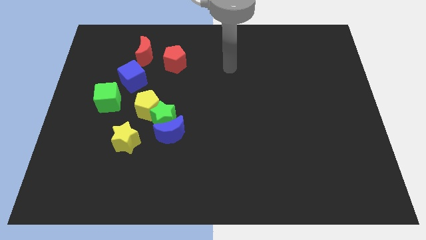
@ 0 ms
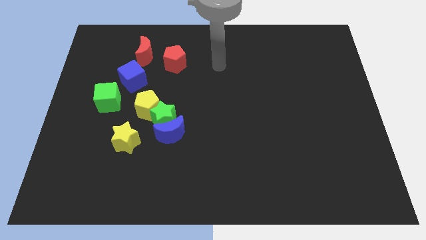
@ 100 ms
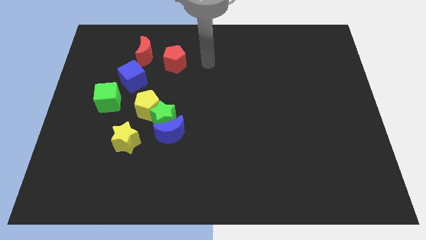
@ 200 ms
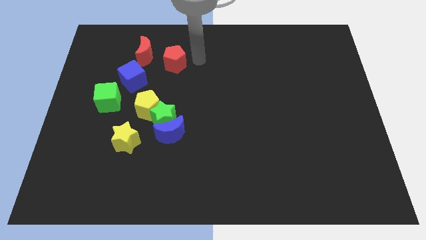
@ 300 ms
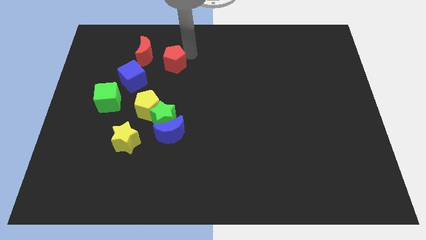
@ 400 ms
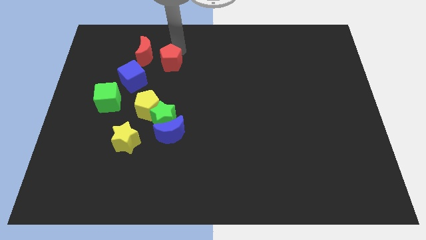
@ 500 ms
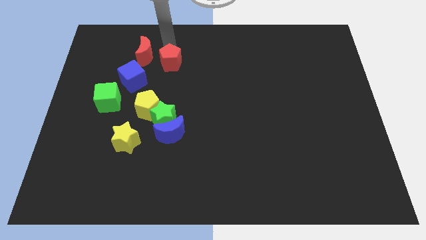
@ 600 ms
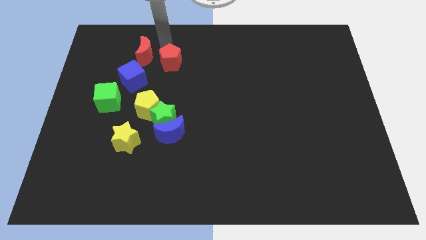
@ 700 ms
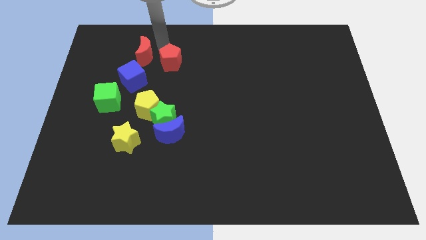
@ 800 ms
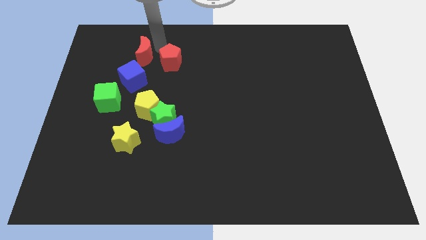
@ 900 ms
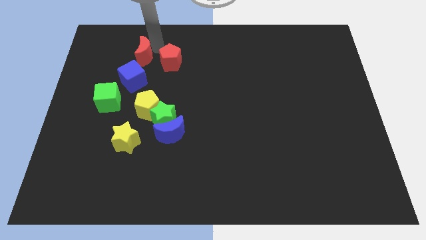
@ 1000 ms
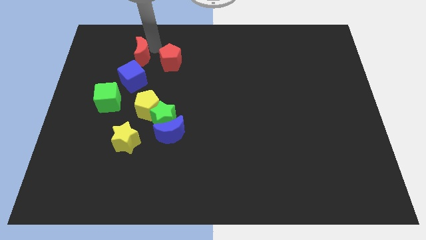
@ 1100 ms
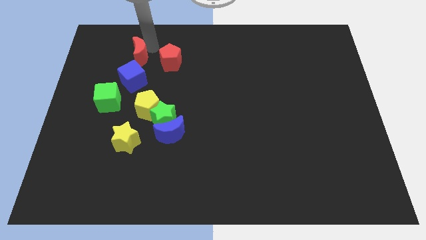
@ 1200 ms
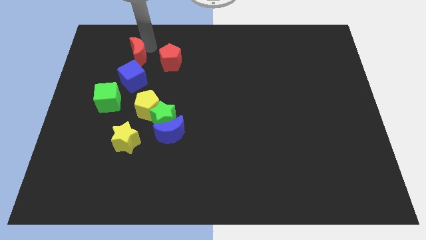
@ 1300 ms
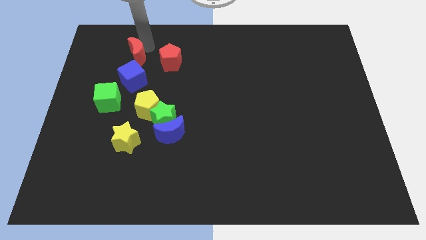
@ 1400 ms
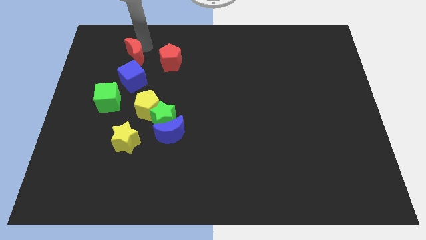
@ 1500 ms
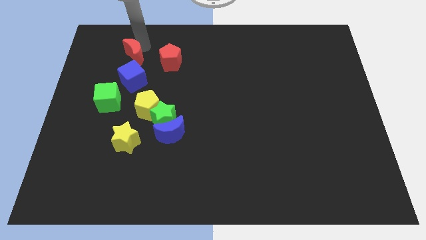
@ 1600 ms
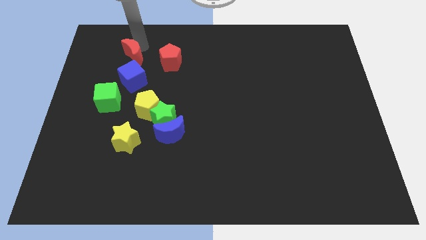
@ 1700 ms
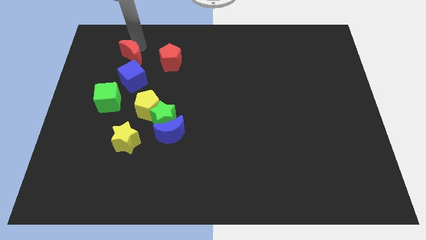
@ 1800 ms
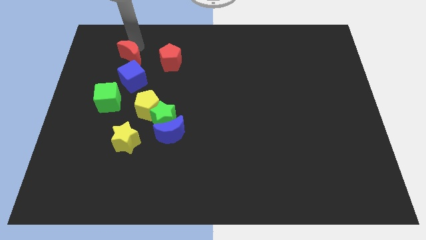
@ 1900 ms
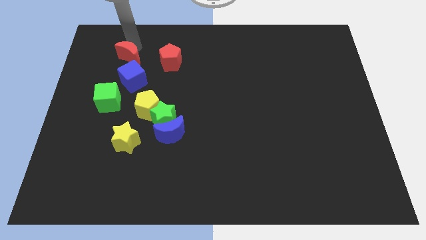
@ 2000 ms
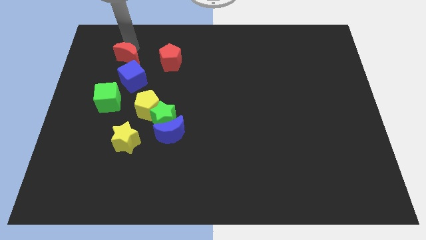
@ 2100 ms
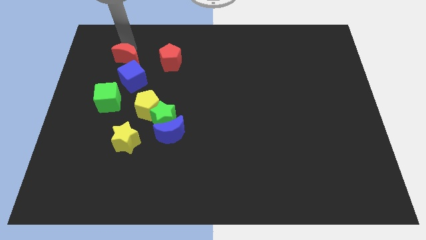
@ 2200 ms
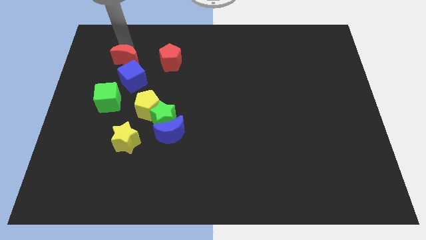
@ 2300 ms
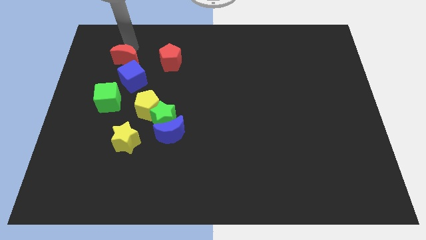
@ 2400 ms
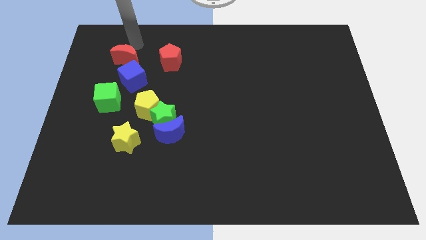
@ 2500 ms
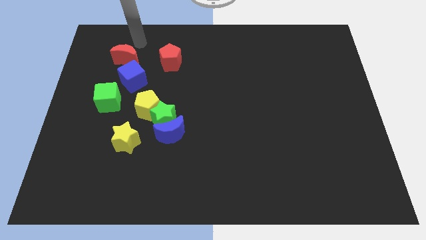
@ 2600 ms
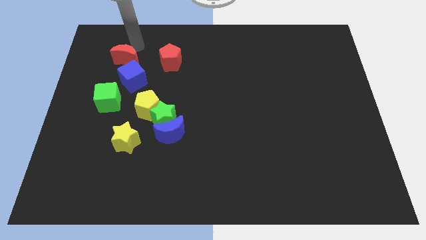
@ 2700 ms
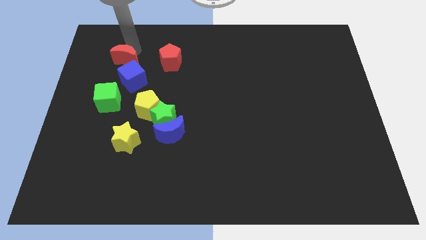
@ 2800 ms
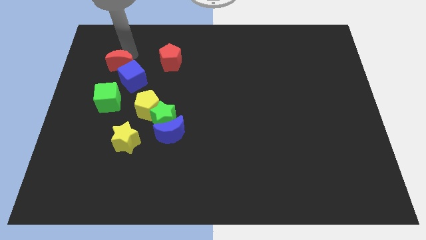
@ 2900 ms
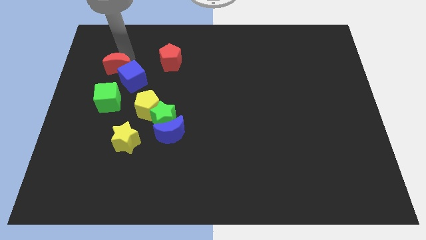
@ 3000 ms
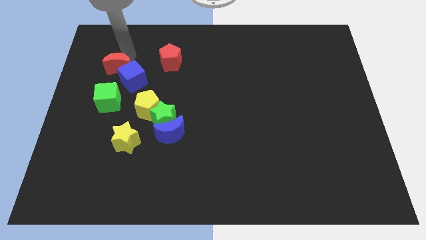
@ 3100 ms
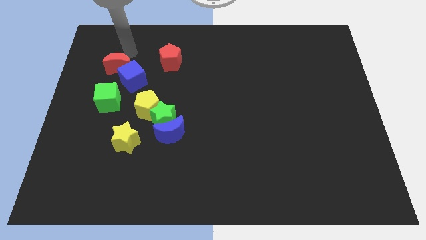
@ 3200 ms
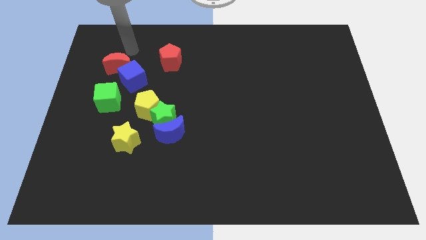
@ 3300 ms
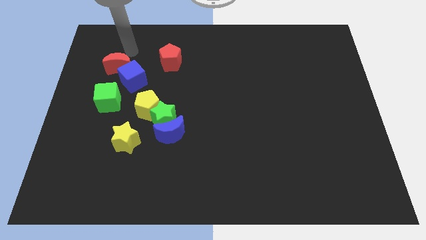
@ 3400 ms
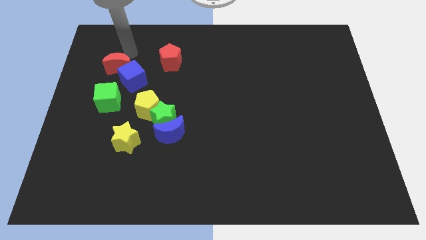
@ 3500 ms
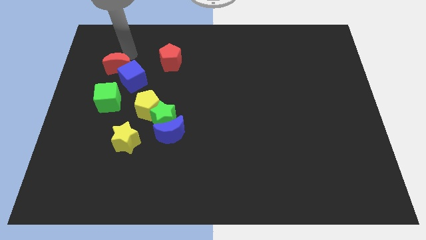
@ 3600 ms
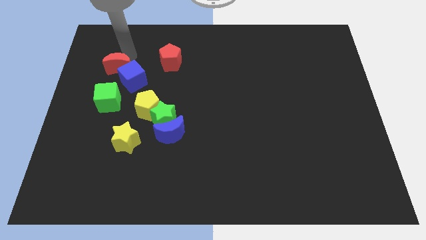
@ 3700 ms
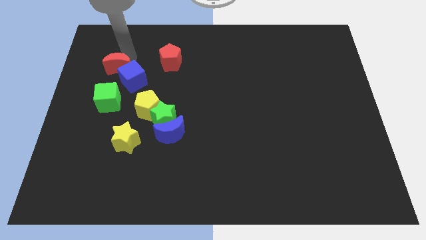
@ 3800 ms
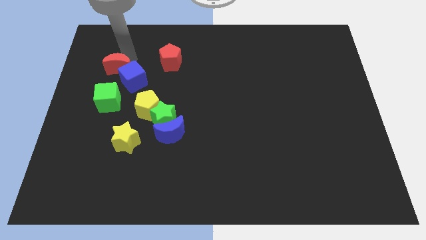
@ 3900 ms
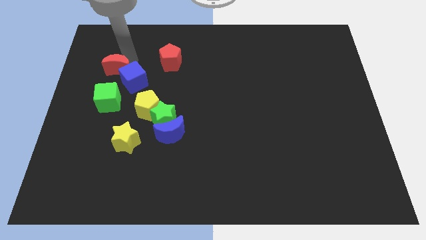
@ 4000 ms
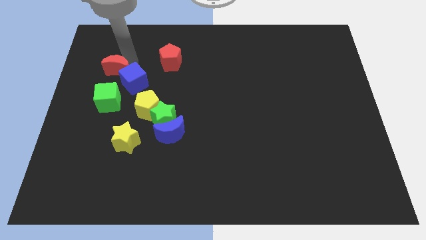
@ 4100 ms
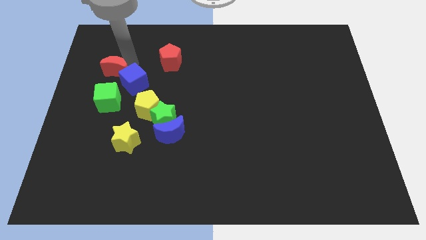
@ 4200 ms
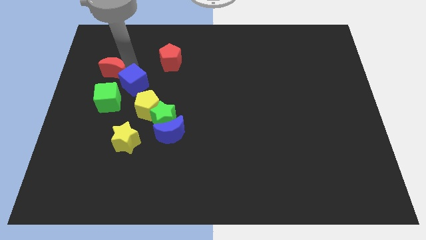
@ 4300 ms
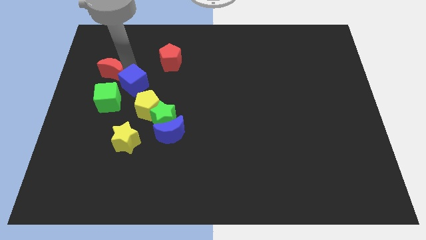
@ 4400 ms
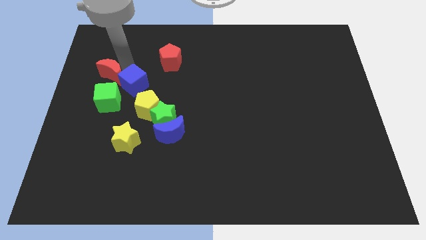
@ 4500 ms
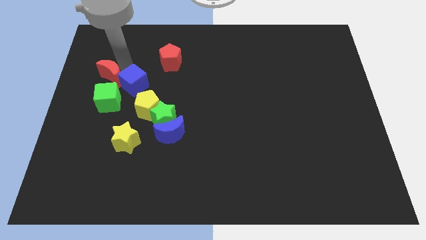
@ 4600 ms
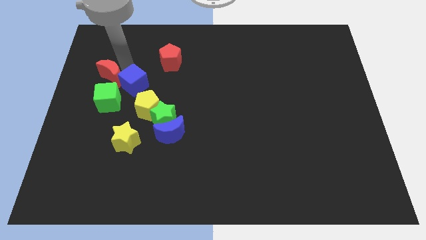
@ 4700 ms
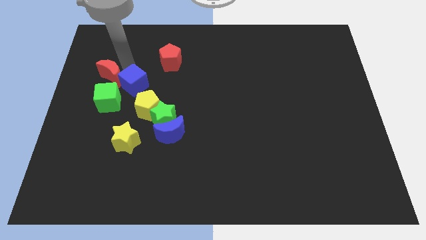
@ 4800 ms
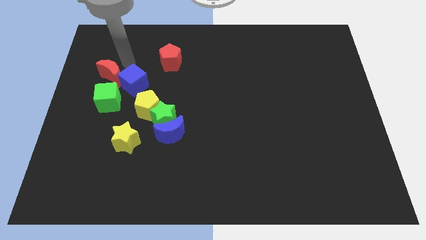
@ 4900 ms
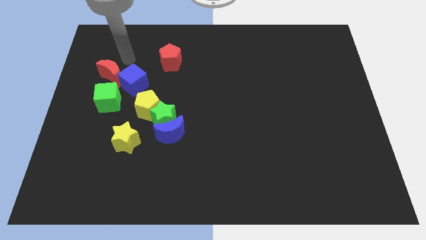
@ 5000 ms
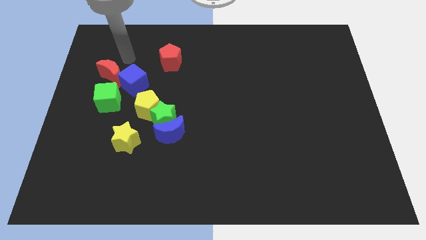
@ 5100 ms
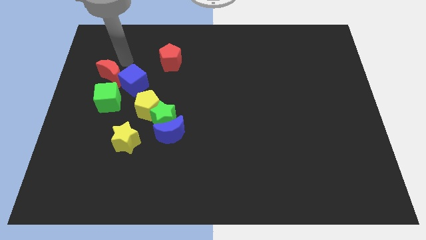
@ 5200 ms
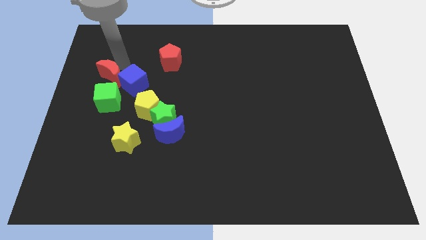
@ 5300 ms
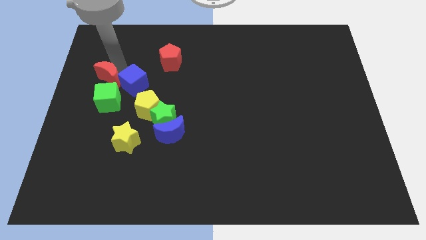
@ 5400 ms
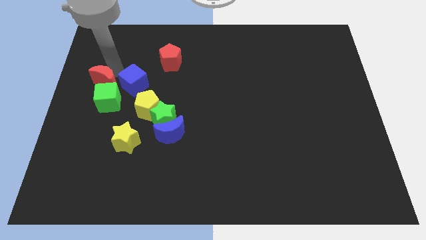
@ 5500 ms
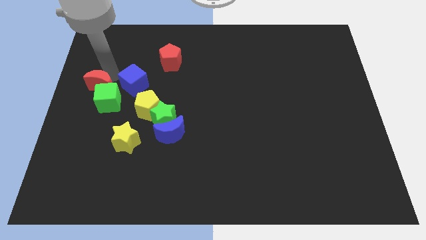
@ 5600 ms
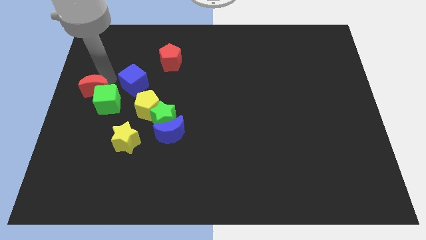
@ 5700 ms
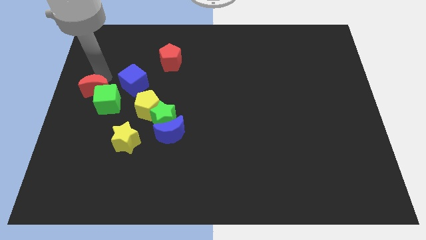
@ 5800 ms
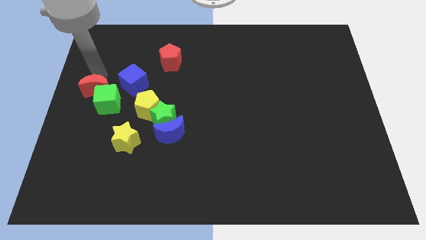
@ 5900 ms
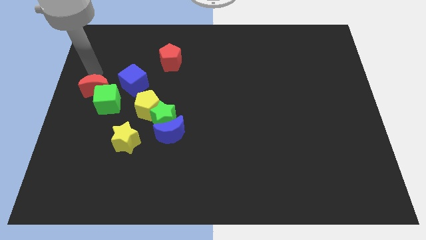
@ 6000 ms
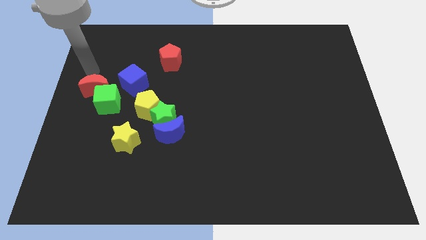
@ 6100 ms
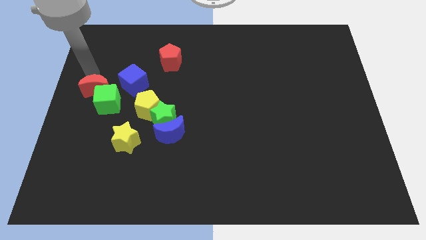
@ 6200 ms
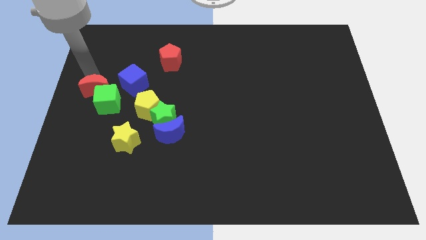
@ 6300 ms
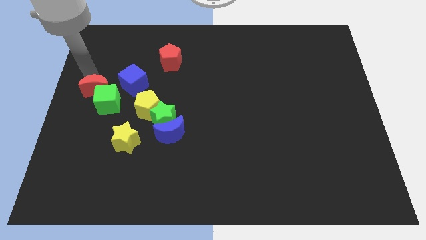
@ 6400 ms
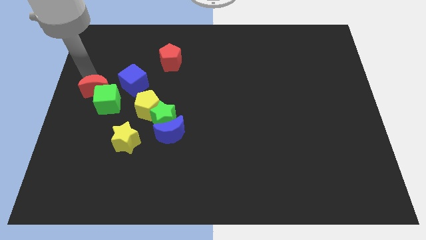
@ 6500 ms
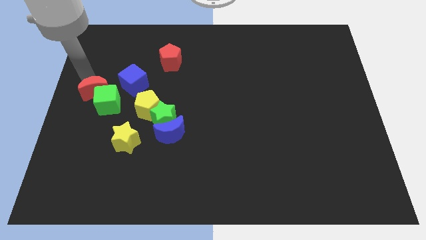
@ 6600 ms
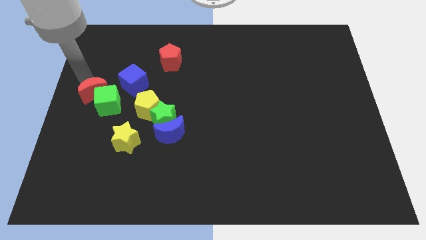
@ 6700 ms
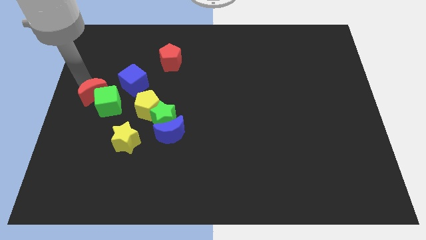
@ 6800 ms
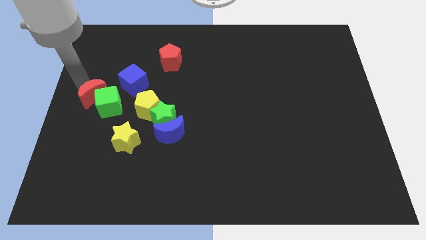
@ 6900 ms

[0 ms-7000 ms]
move the red moon to the left of the yellow pentagon

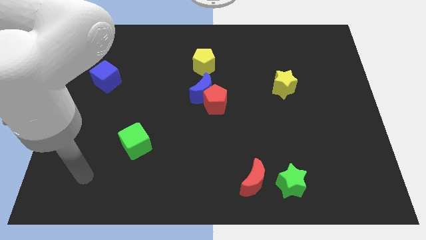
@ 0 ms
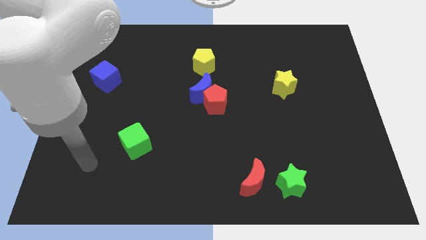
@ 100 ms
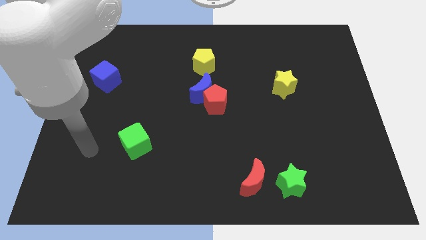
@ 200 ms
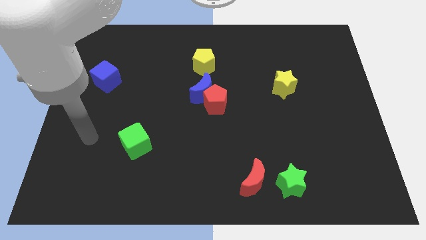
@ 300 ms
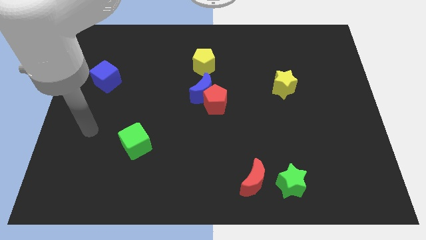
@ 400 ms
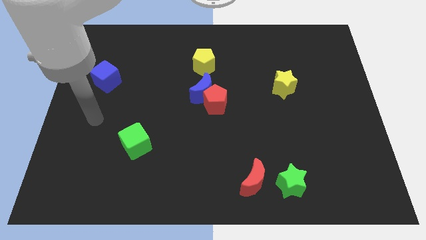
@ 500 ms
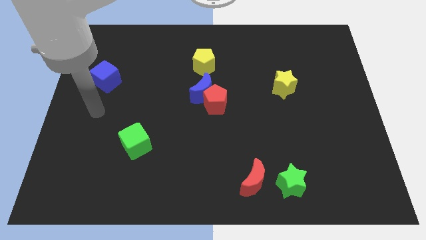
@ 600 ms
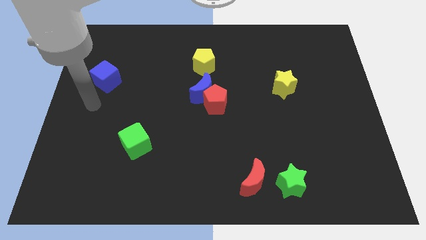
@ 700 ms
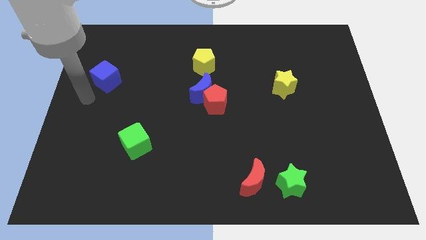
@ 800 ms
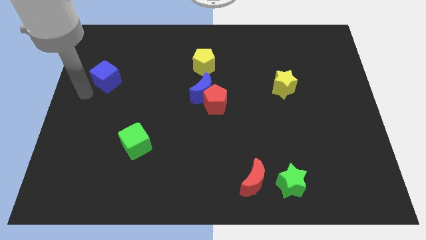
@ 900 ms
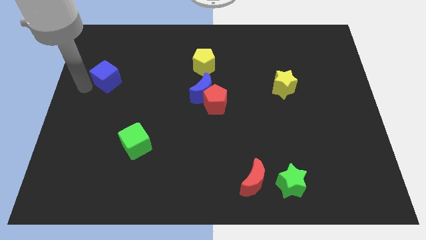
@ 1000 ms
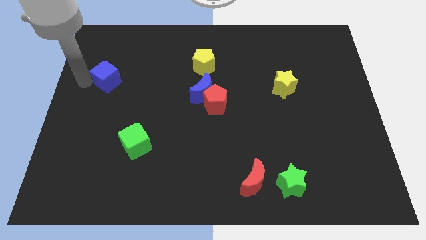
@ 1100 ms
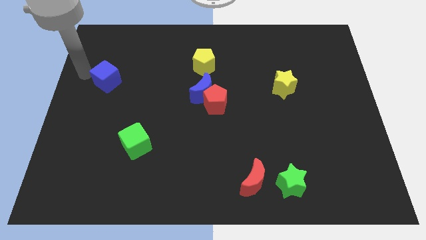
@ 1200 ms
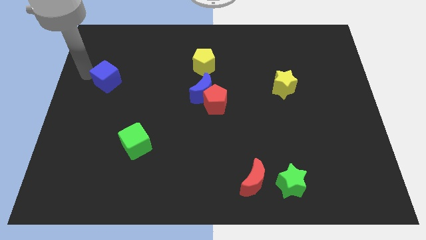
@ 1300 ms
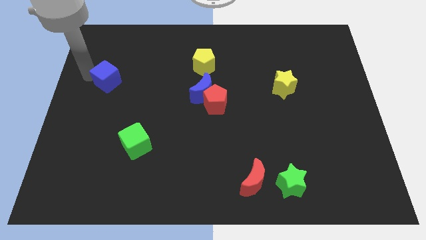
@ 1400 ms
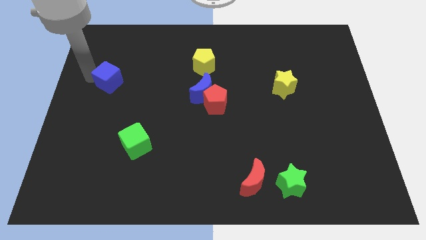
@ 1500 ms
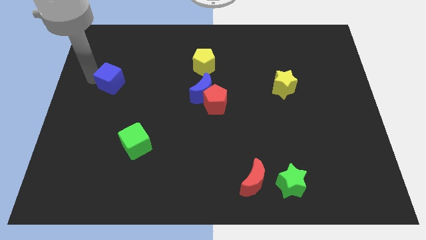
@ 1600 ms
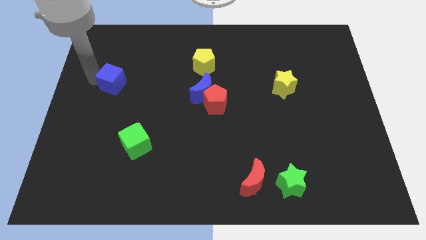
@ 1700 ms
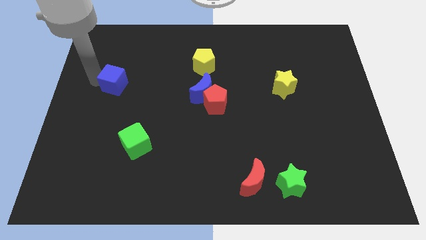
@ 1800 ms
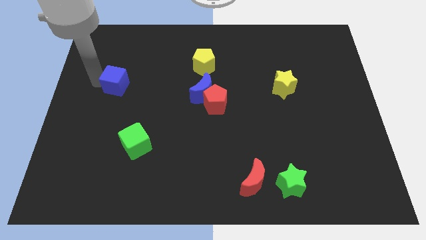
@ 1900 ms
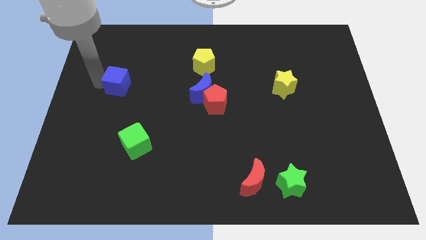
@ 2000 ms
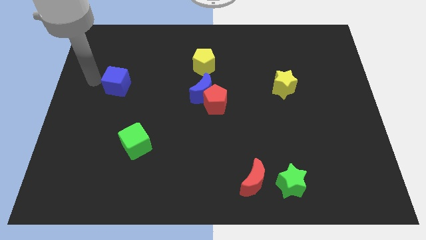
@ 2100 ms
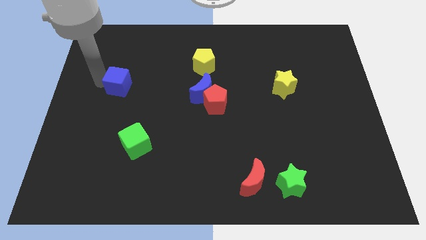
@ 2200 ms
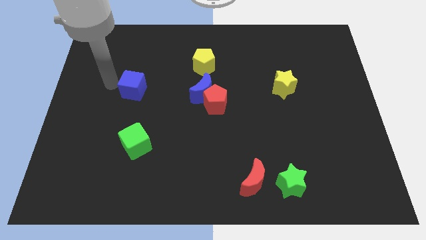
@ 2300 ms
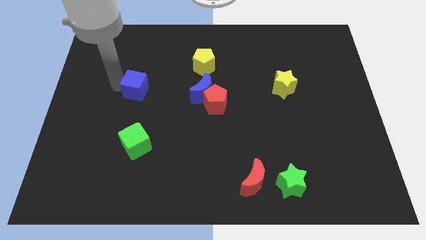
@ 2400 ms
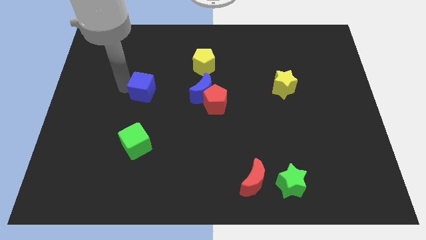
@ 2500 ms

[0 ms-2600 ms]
move the blue cube to the left of the blue moon
